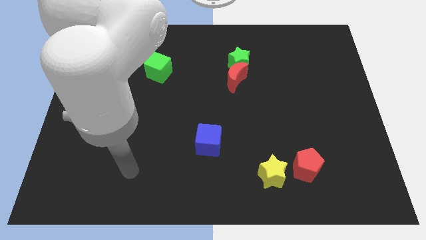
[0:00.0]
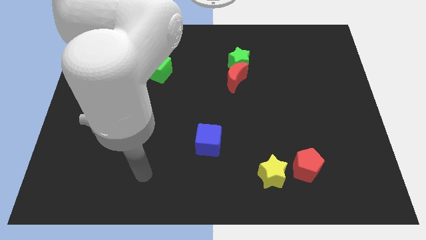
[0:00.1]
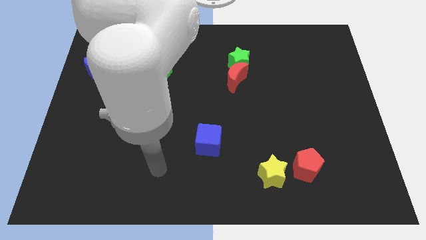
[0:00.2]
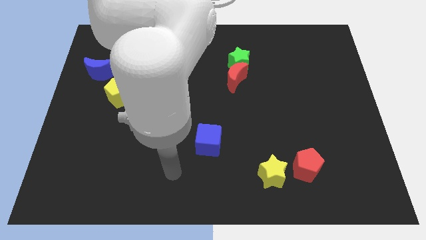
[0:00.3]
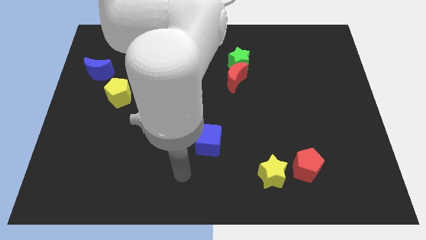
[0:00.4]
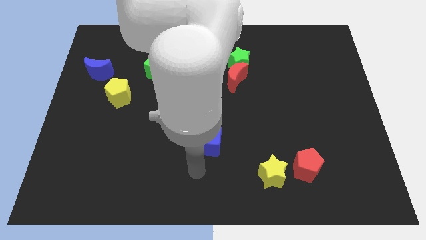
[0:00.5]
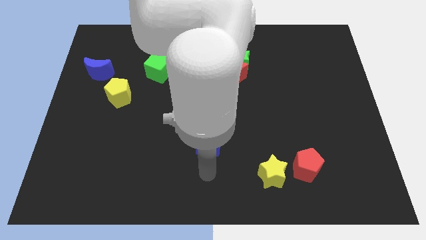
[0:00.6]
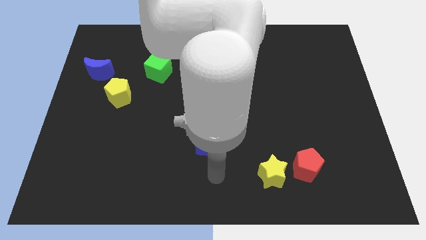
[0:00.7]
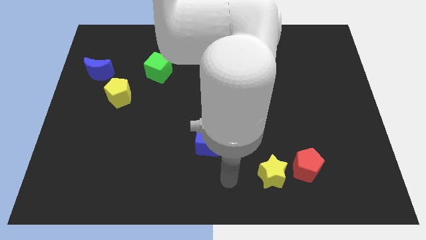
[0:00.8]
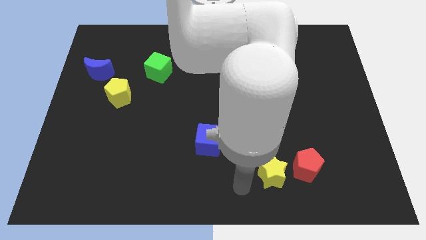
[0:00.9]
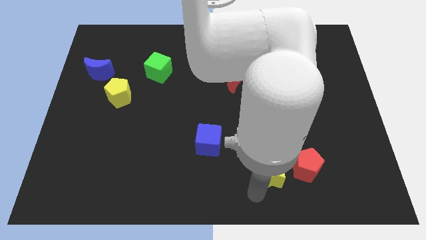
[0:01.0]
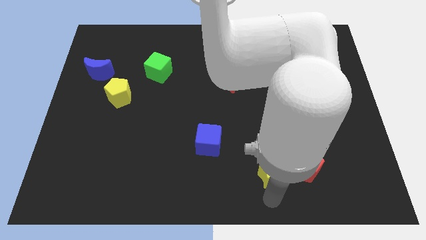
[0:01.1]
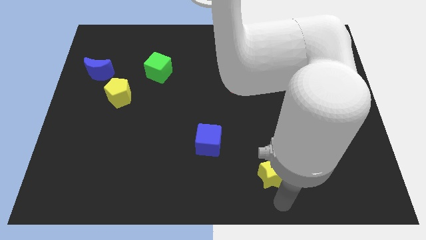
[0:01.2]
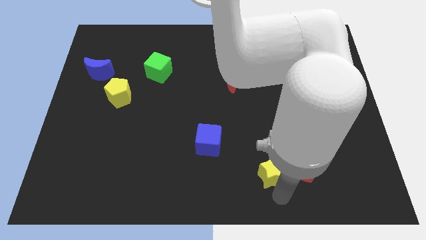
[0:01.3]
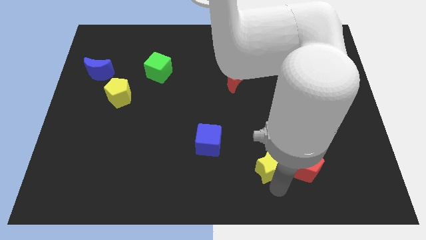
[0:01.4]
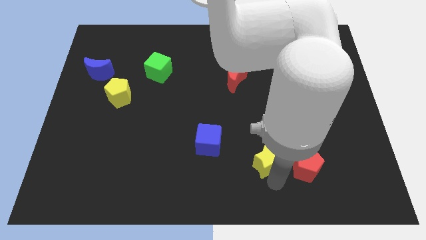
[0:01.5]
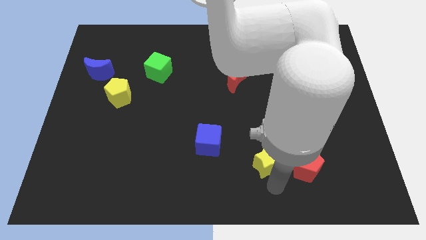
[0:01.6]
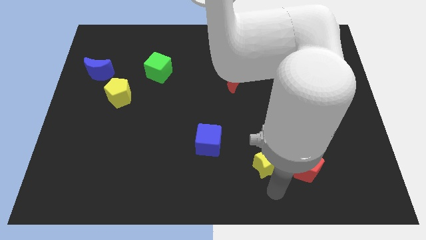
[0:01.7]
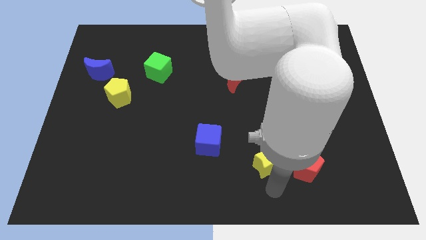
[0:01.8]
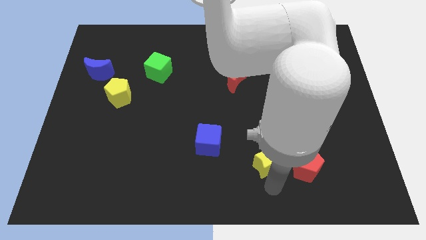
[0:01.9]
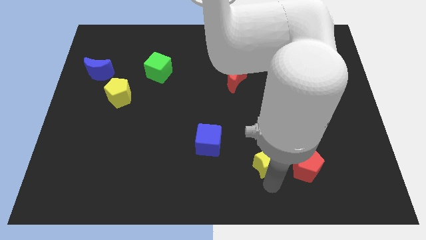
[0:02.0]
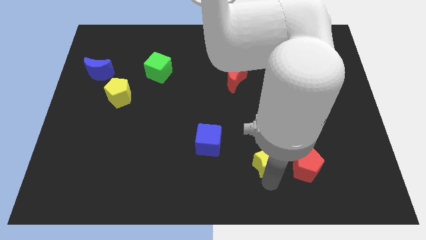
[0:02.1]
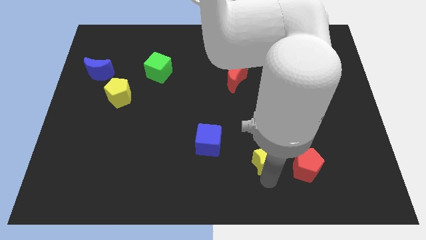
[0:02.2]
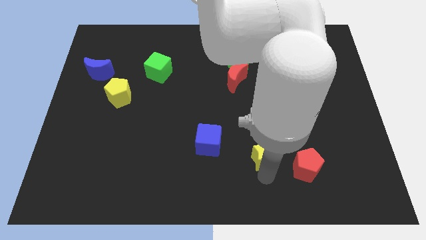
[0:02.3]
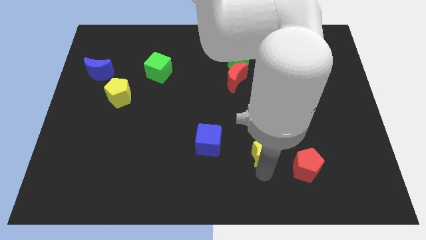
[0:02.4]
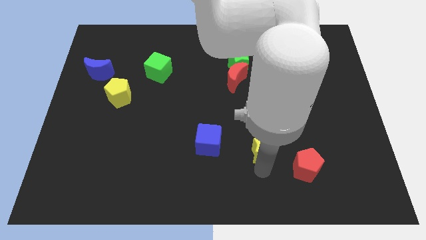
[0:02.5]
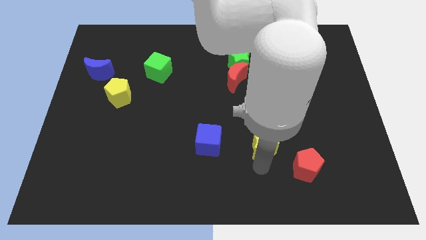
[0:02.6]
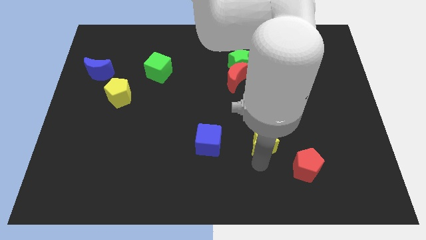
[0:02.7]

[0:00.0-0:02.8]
slide the yellow star up a little bit

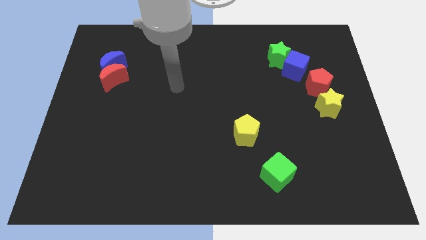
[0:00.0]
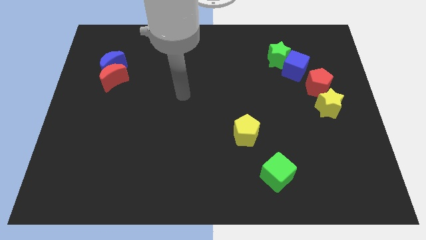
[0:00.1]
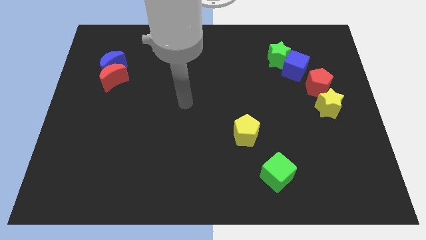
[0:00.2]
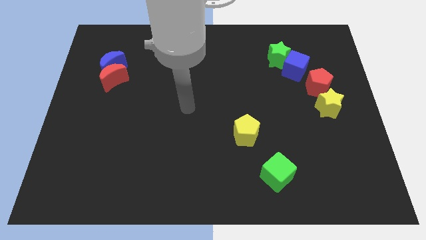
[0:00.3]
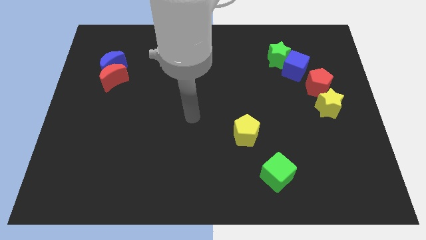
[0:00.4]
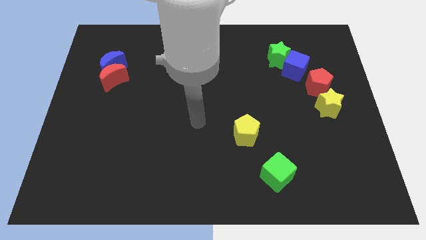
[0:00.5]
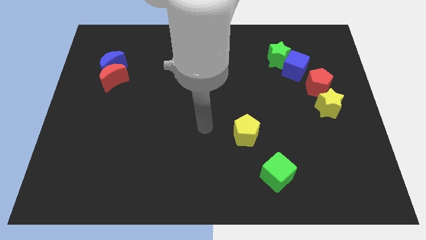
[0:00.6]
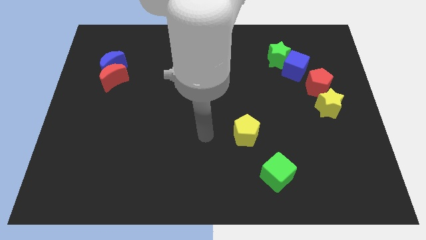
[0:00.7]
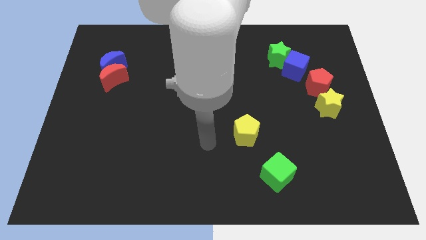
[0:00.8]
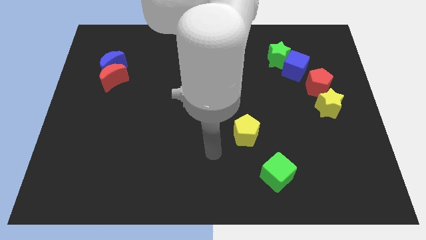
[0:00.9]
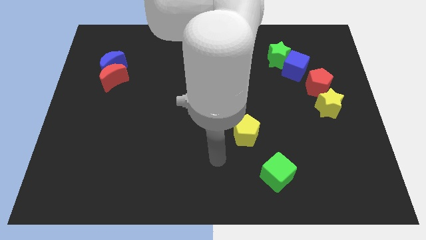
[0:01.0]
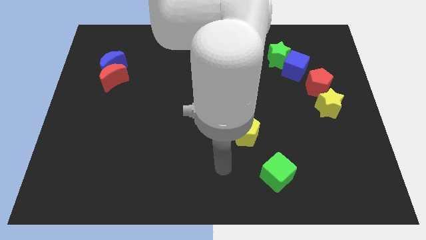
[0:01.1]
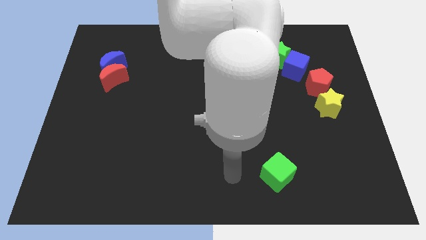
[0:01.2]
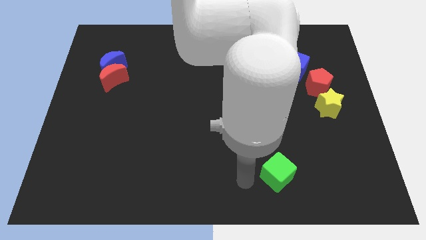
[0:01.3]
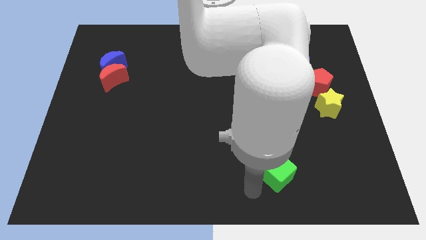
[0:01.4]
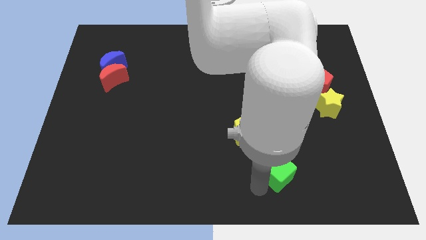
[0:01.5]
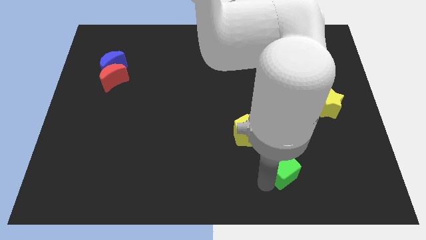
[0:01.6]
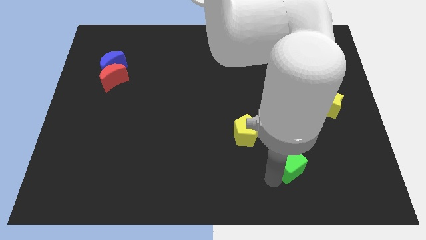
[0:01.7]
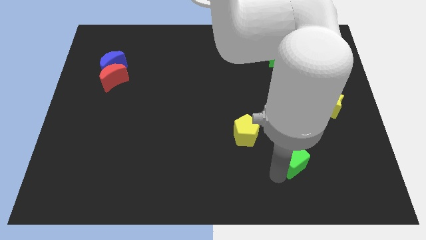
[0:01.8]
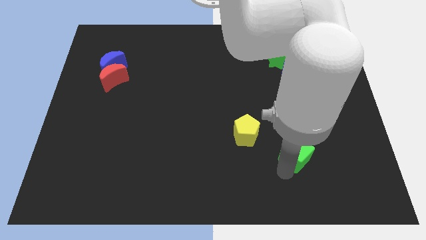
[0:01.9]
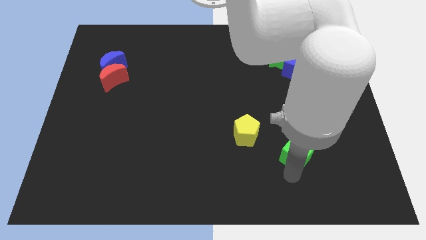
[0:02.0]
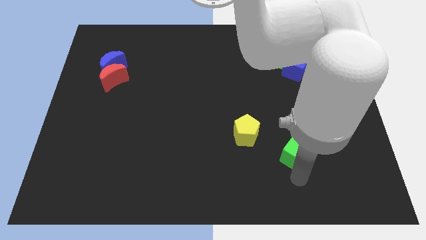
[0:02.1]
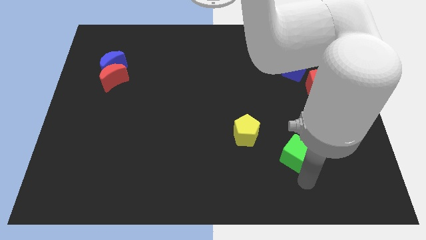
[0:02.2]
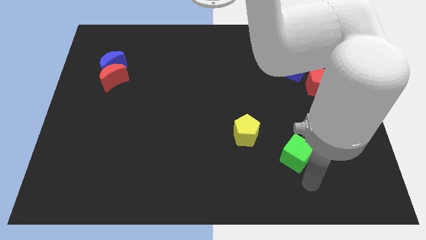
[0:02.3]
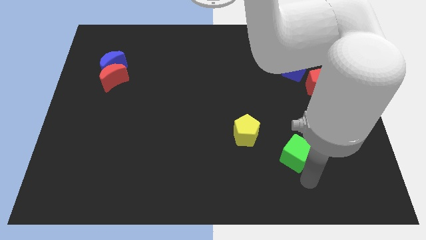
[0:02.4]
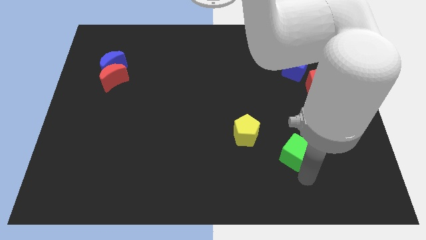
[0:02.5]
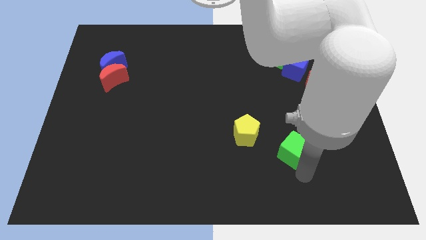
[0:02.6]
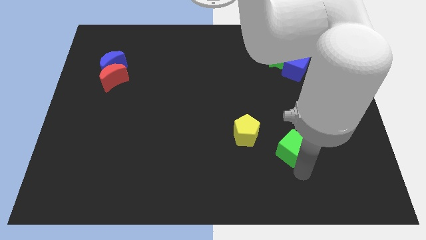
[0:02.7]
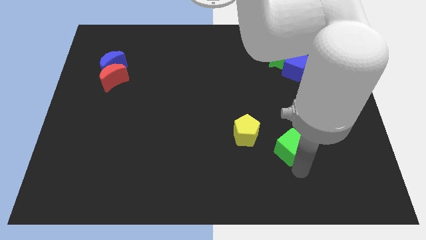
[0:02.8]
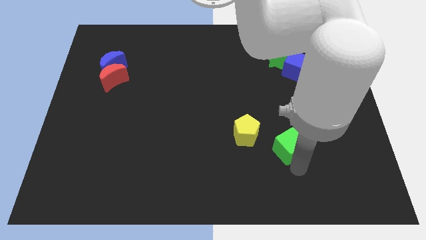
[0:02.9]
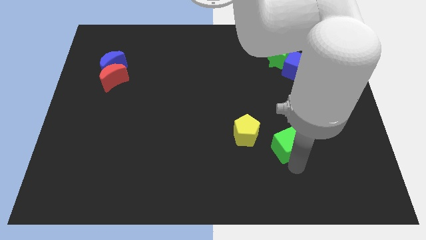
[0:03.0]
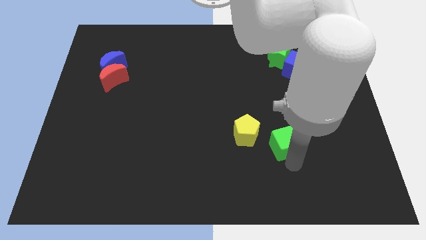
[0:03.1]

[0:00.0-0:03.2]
slightly move the green cube upwards

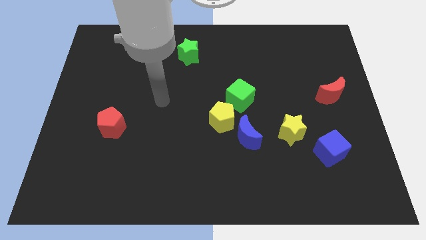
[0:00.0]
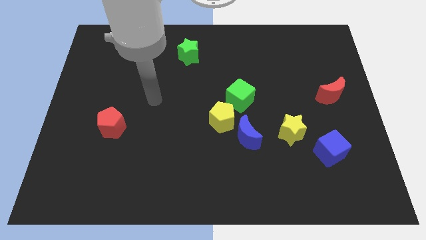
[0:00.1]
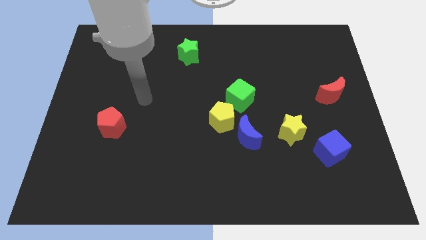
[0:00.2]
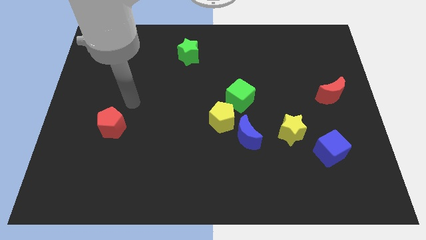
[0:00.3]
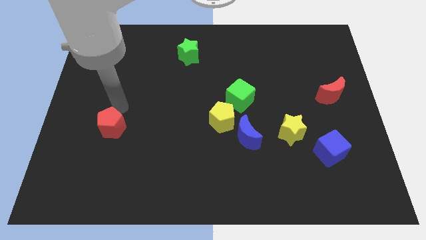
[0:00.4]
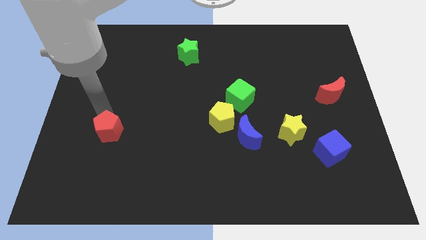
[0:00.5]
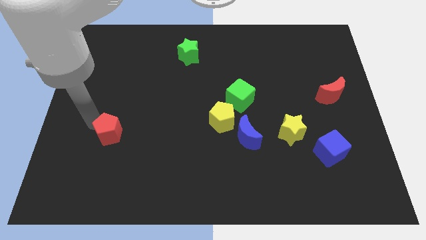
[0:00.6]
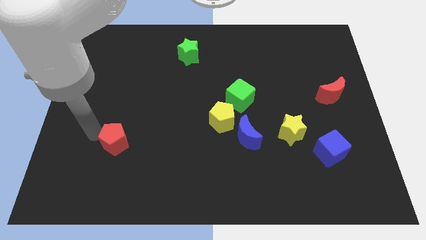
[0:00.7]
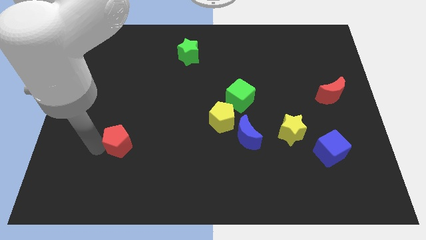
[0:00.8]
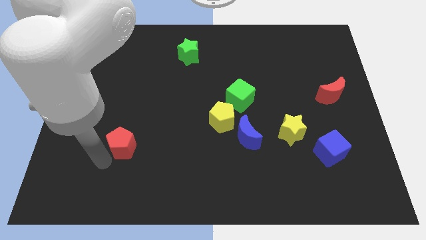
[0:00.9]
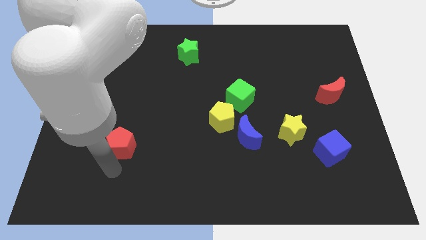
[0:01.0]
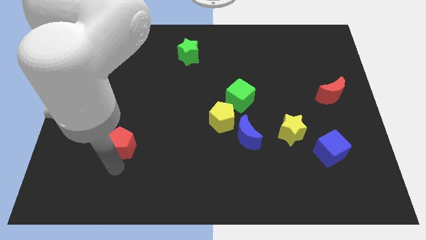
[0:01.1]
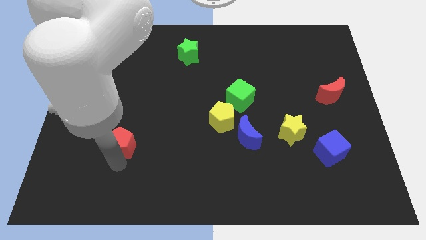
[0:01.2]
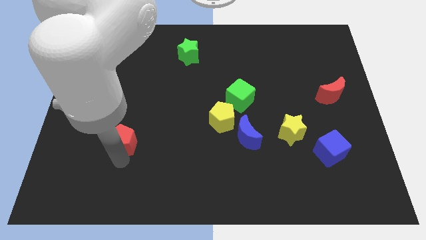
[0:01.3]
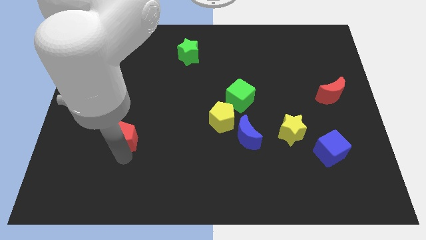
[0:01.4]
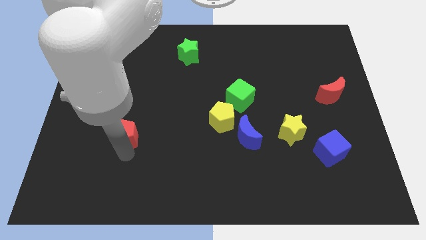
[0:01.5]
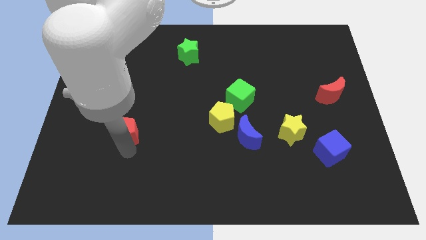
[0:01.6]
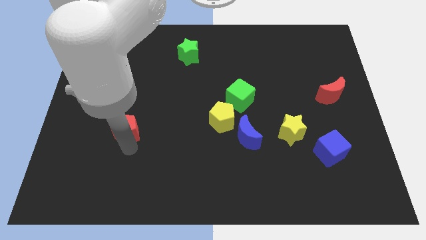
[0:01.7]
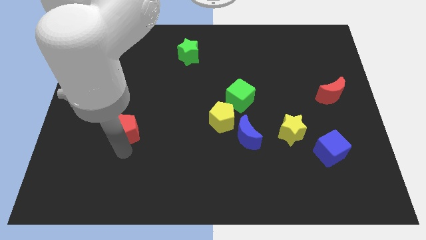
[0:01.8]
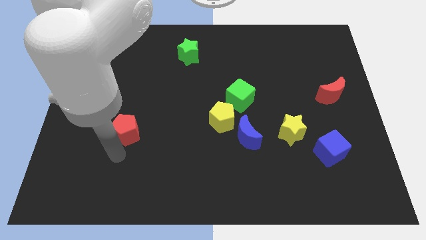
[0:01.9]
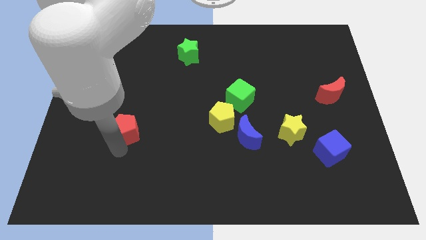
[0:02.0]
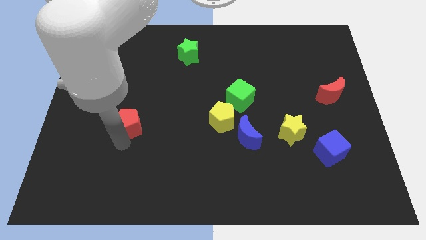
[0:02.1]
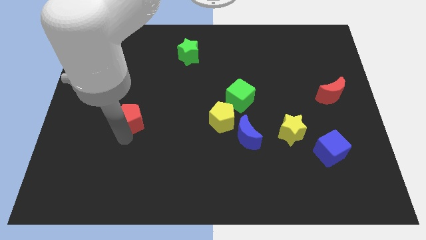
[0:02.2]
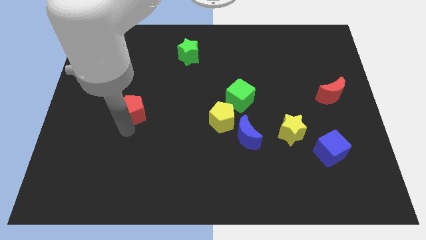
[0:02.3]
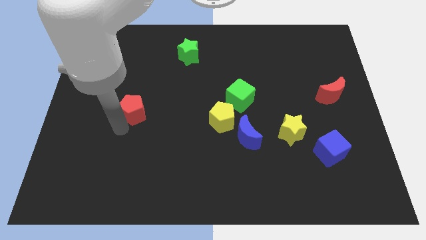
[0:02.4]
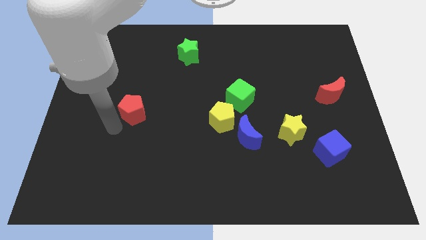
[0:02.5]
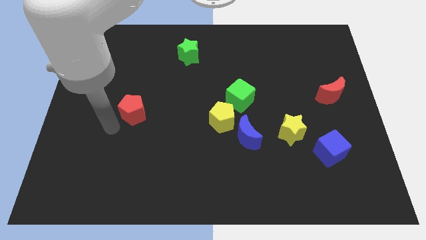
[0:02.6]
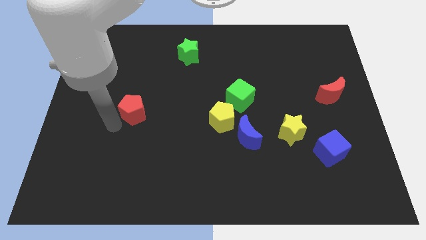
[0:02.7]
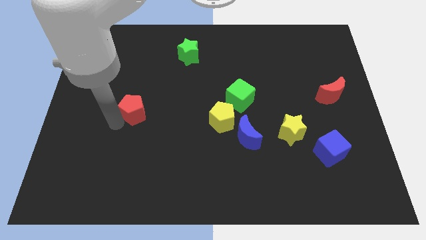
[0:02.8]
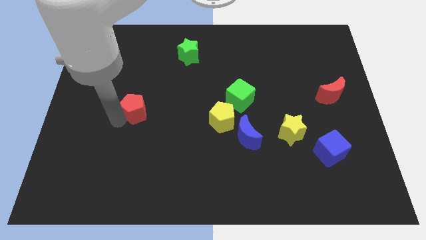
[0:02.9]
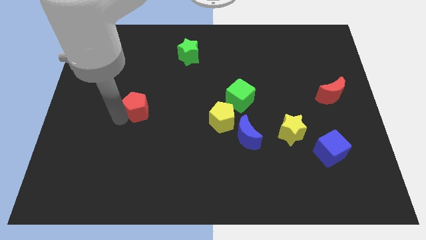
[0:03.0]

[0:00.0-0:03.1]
slightly slide the red pentagon diagonally upwards and right
